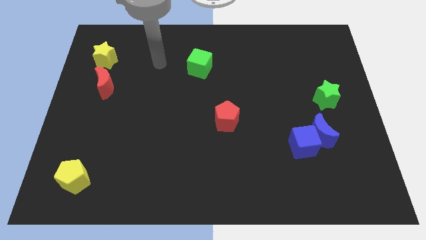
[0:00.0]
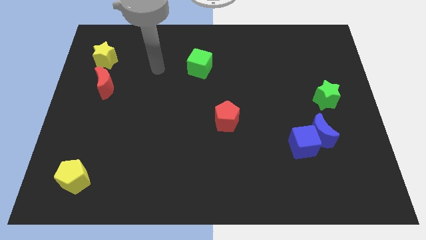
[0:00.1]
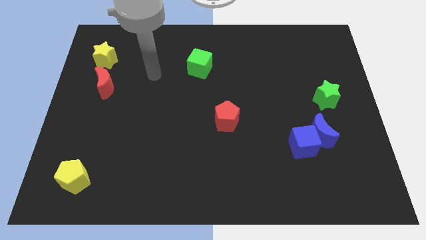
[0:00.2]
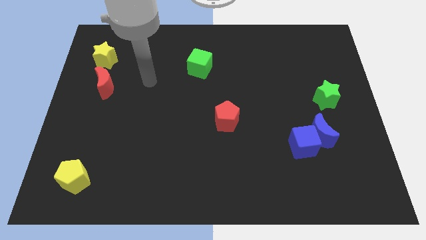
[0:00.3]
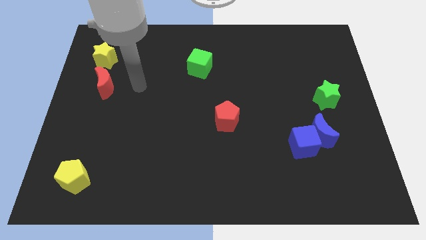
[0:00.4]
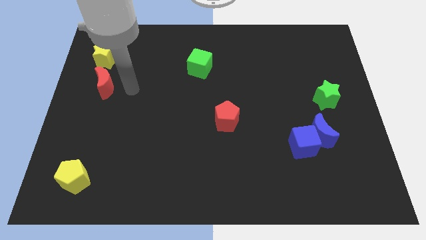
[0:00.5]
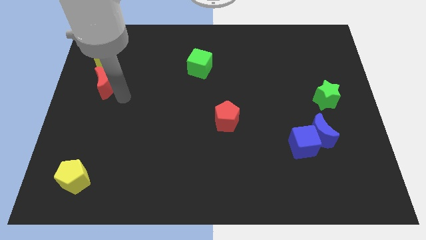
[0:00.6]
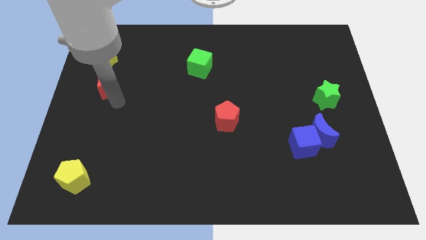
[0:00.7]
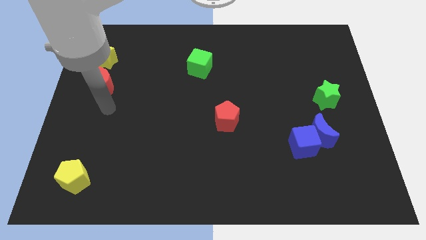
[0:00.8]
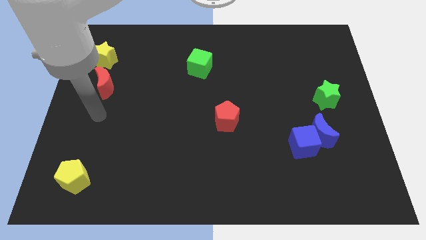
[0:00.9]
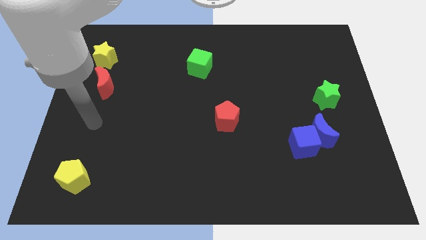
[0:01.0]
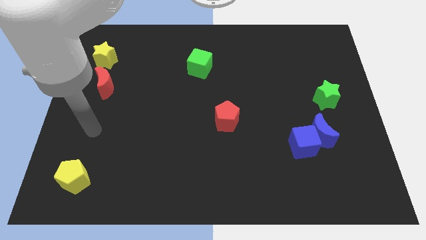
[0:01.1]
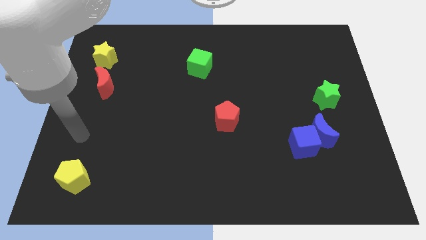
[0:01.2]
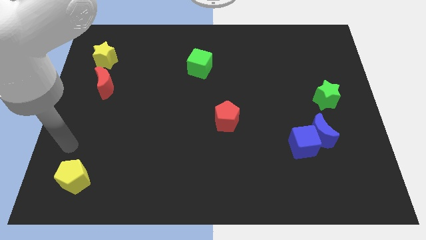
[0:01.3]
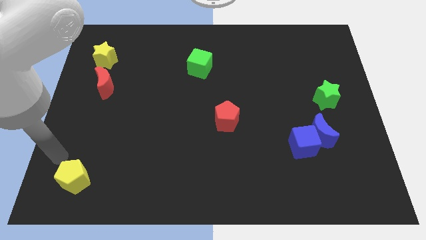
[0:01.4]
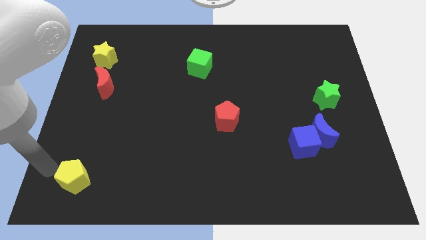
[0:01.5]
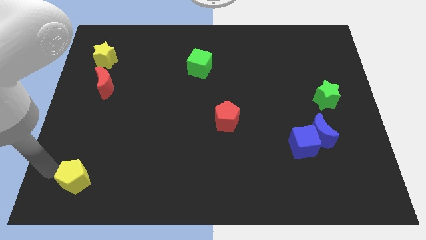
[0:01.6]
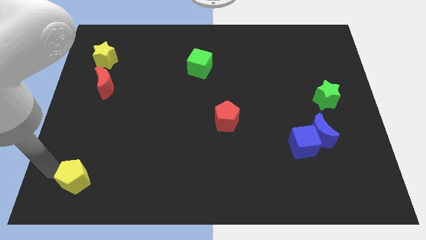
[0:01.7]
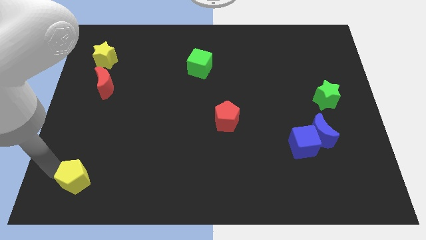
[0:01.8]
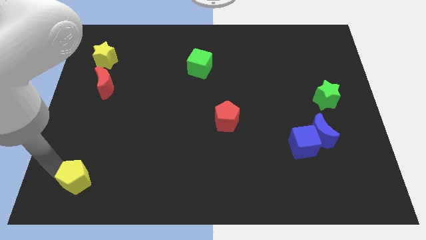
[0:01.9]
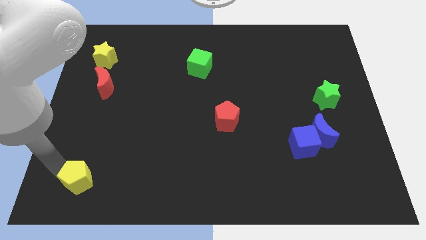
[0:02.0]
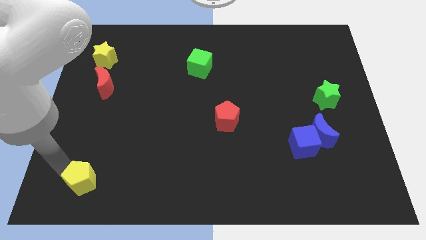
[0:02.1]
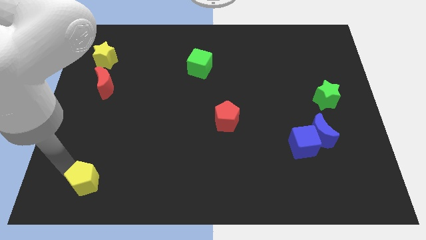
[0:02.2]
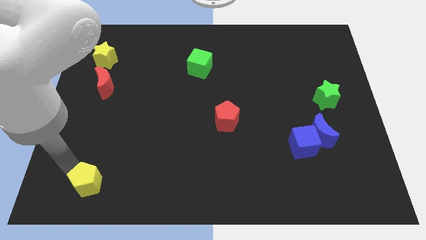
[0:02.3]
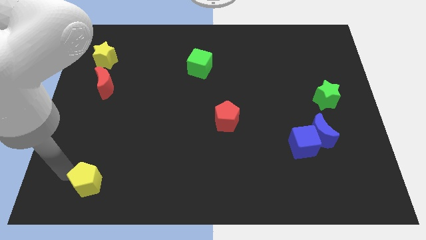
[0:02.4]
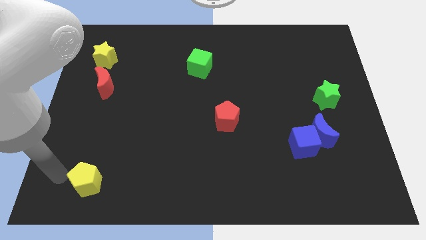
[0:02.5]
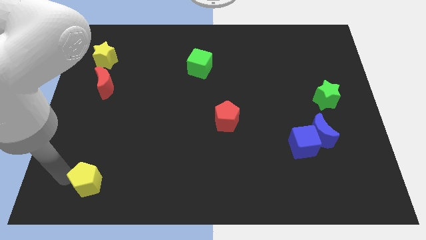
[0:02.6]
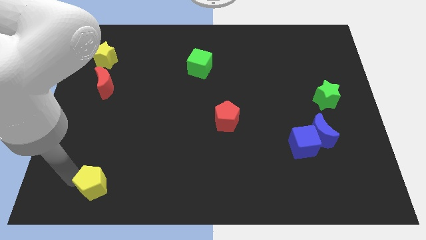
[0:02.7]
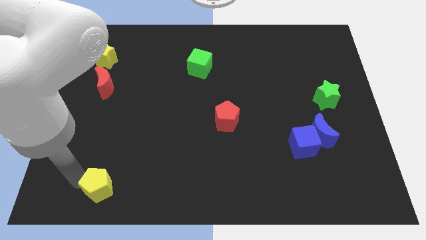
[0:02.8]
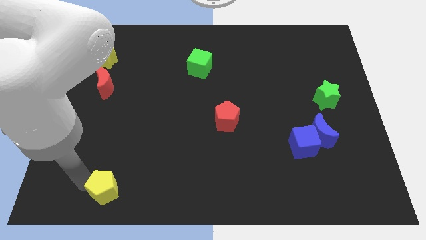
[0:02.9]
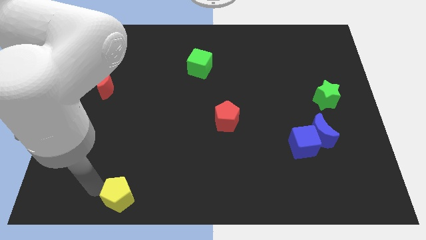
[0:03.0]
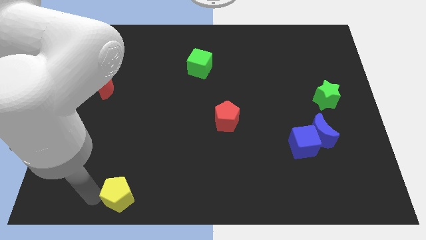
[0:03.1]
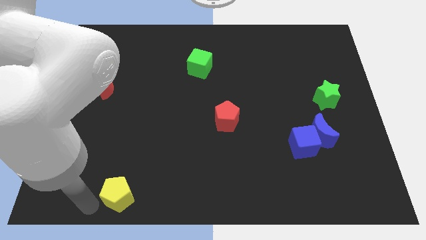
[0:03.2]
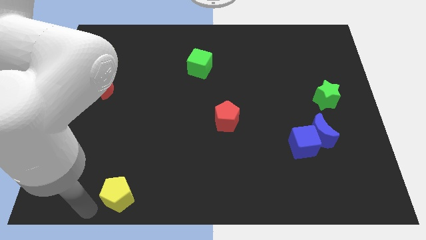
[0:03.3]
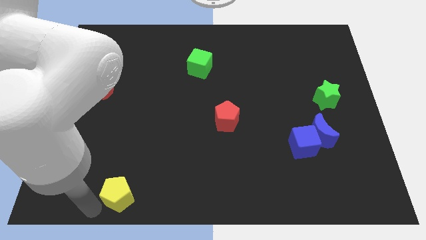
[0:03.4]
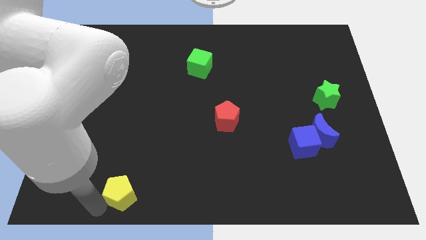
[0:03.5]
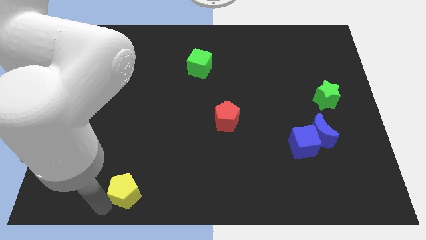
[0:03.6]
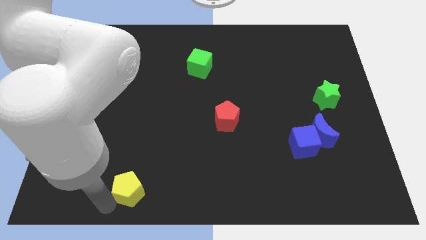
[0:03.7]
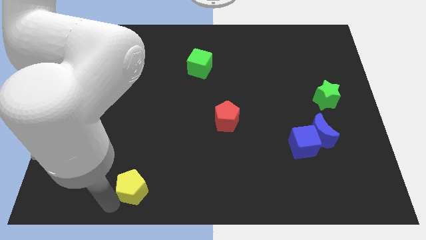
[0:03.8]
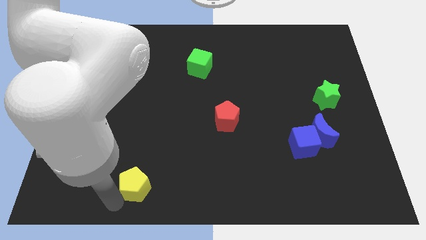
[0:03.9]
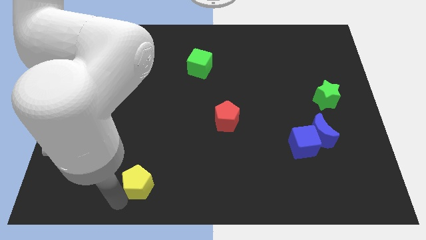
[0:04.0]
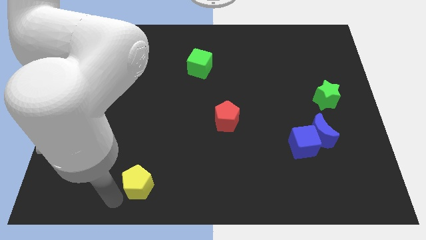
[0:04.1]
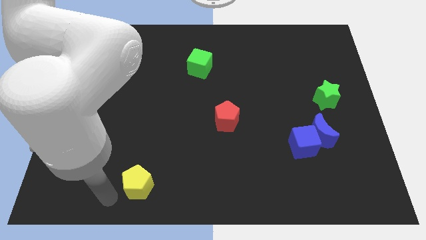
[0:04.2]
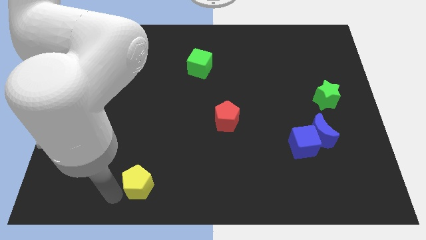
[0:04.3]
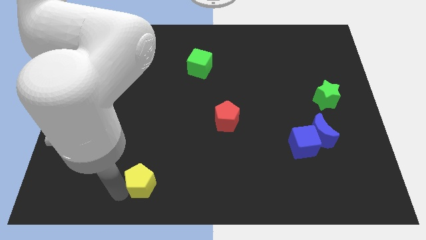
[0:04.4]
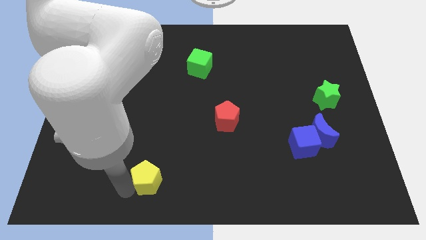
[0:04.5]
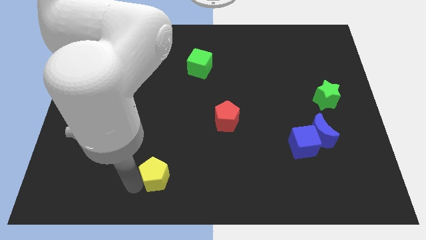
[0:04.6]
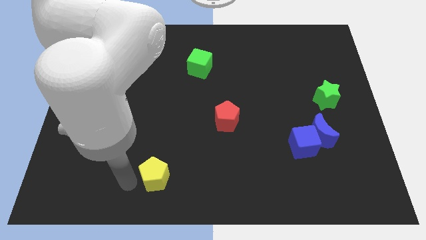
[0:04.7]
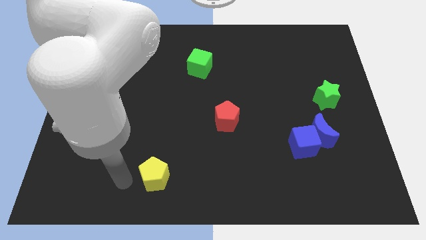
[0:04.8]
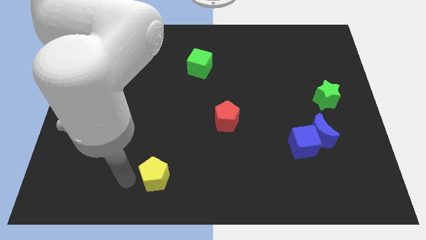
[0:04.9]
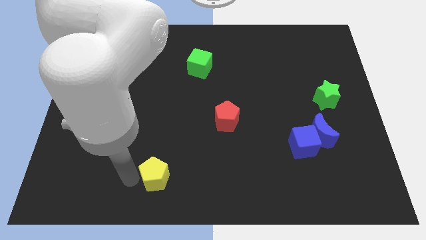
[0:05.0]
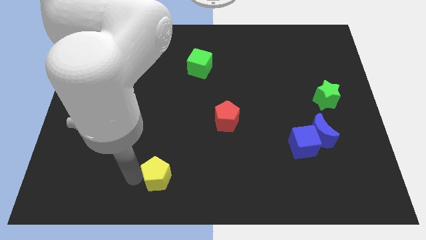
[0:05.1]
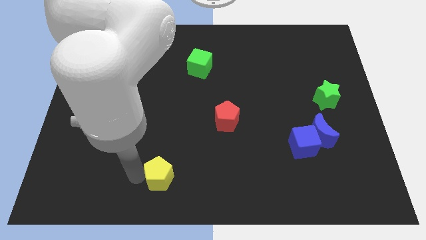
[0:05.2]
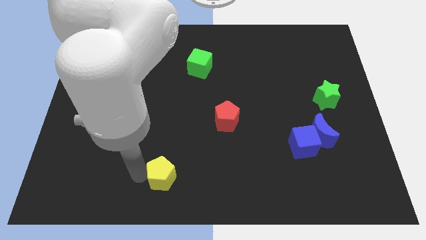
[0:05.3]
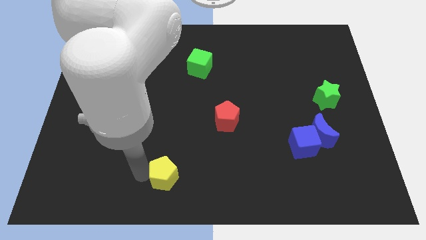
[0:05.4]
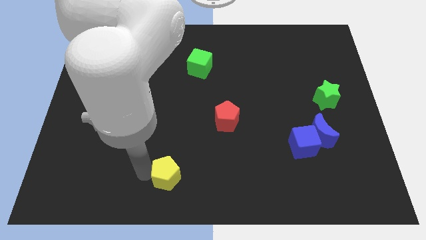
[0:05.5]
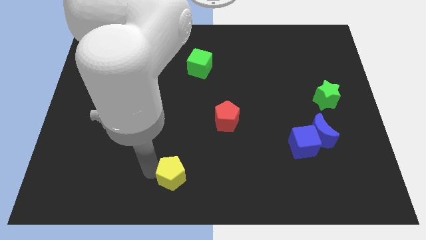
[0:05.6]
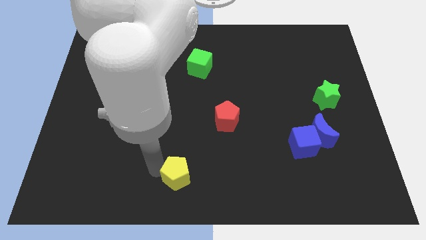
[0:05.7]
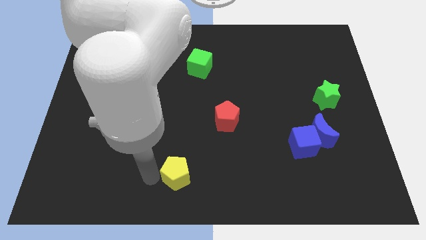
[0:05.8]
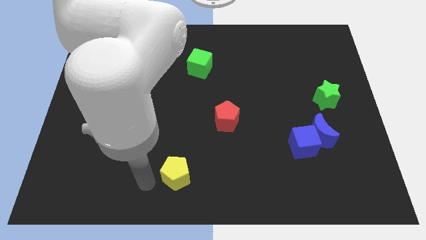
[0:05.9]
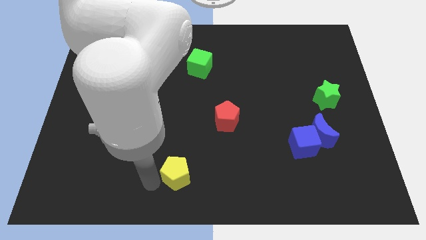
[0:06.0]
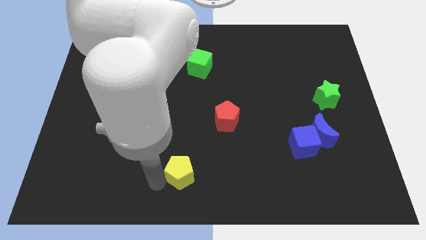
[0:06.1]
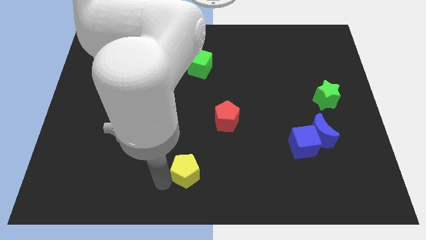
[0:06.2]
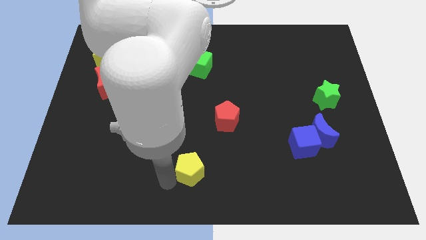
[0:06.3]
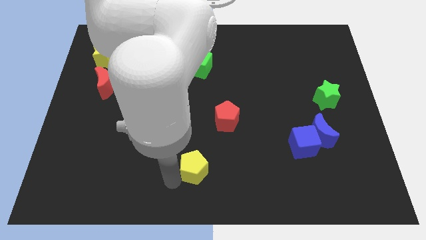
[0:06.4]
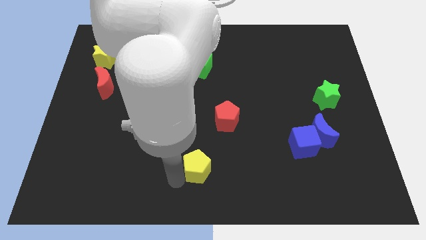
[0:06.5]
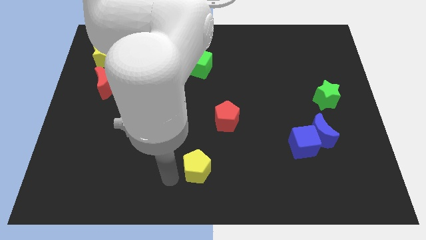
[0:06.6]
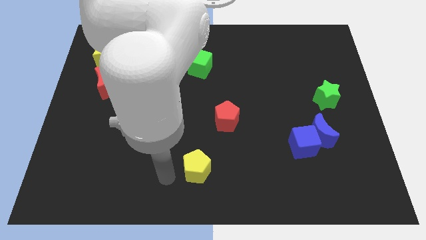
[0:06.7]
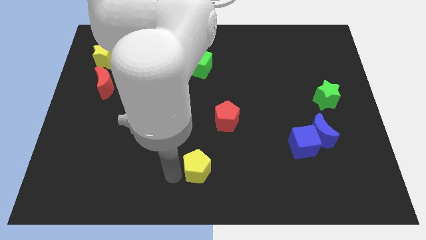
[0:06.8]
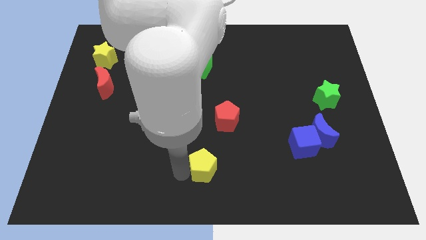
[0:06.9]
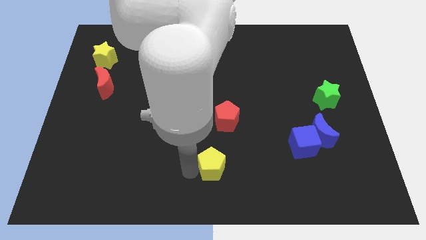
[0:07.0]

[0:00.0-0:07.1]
push the yellow pentagon to the bottom side of the red pentagon
